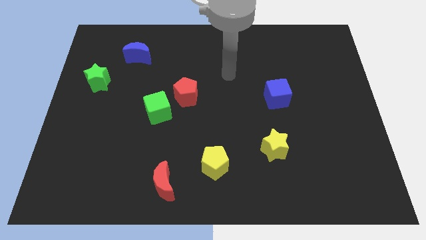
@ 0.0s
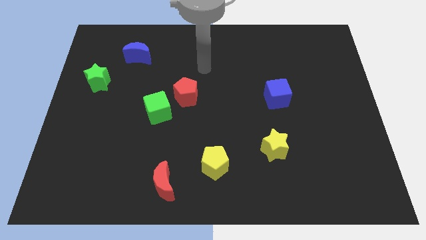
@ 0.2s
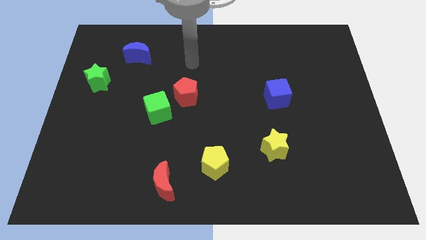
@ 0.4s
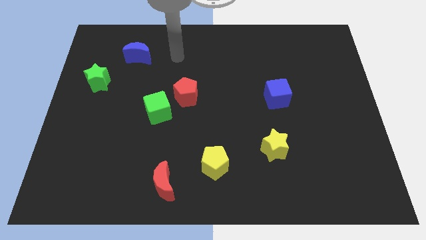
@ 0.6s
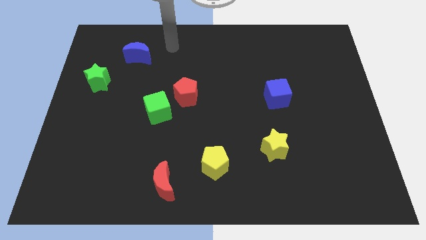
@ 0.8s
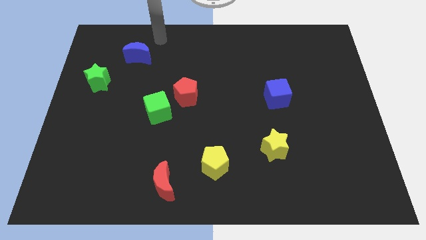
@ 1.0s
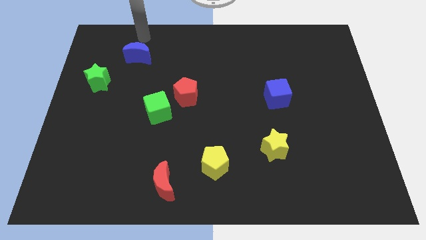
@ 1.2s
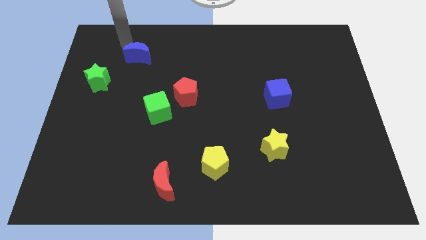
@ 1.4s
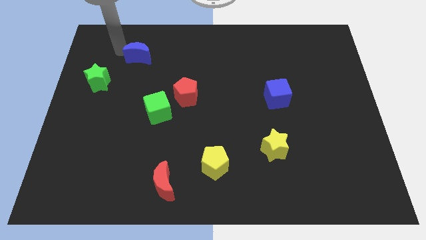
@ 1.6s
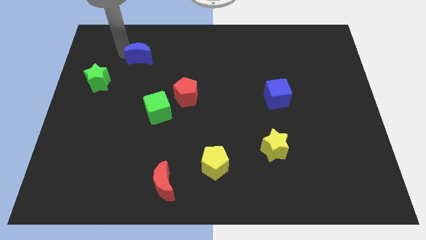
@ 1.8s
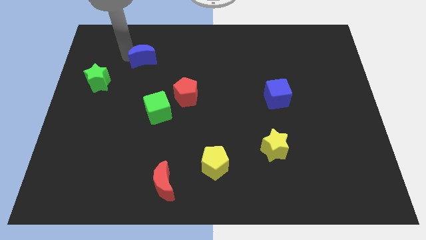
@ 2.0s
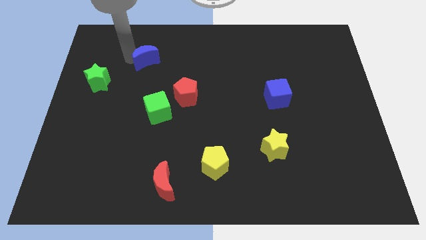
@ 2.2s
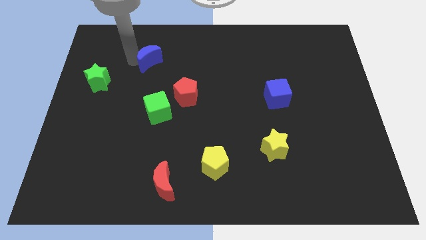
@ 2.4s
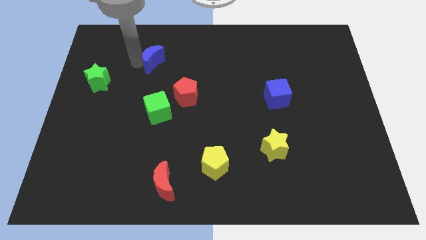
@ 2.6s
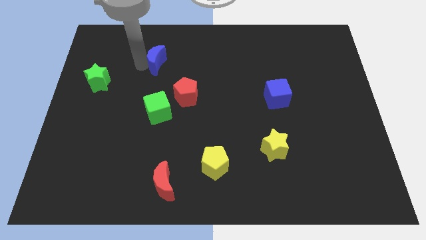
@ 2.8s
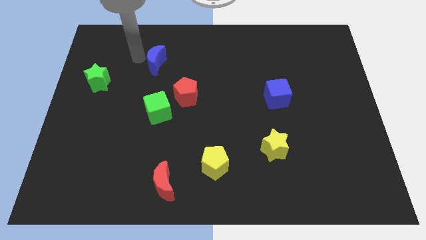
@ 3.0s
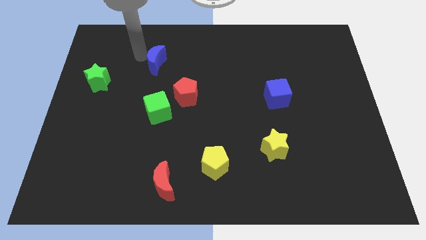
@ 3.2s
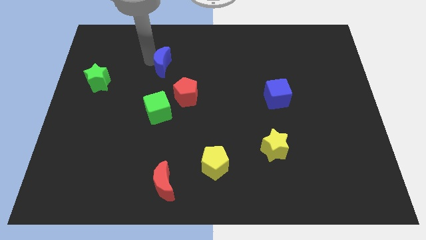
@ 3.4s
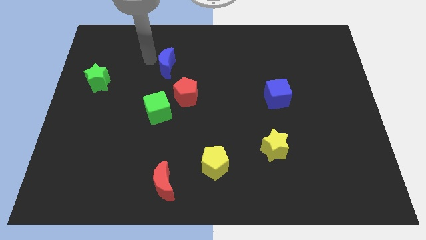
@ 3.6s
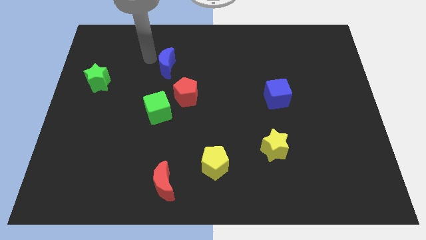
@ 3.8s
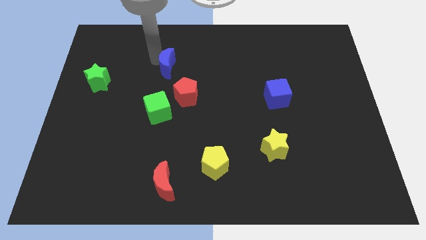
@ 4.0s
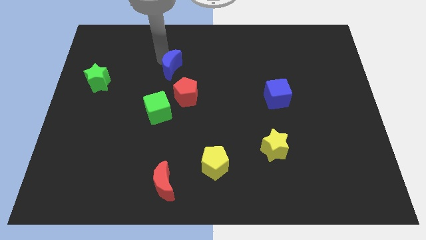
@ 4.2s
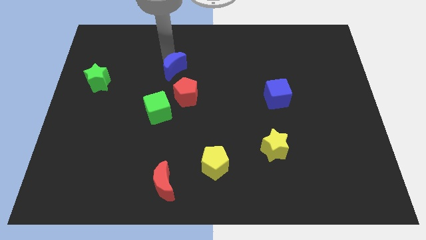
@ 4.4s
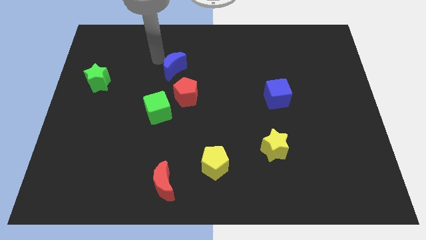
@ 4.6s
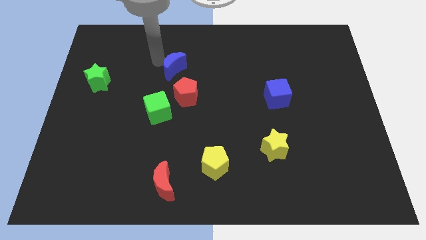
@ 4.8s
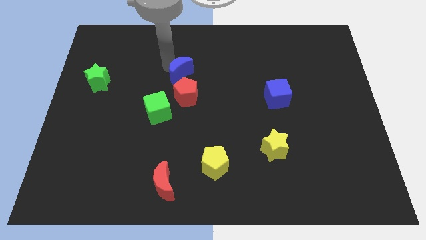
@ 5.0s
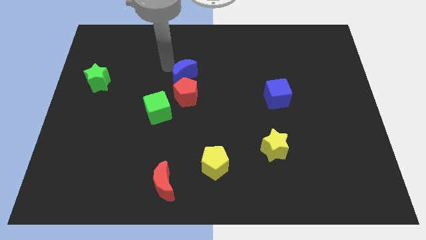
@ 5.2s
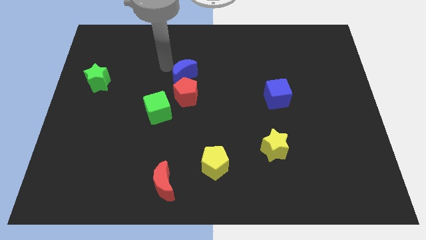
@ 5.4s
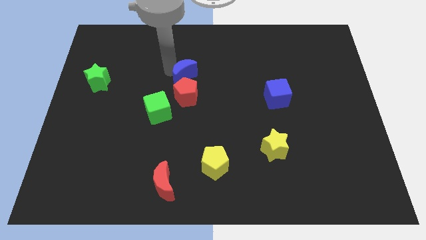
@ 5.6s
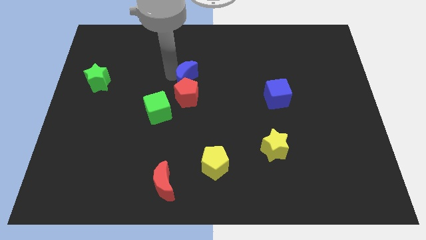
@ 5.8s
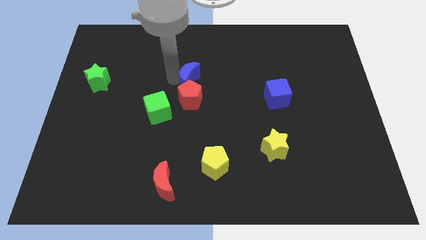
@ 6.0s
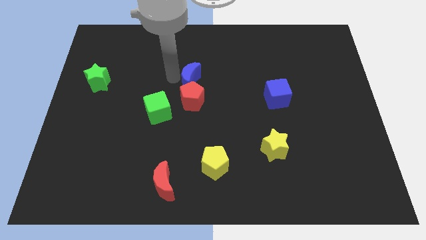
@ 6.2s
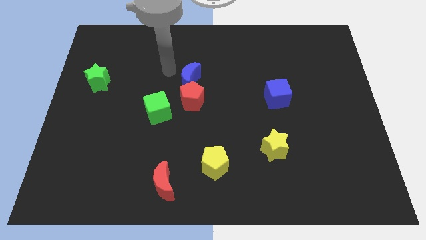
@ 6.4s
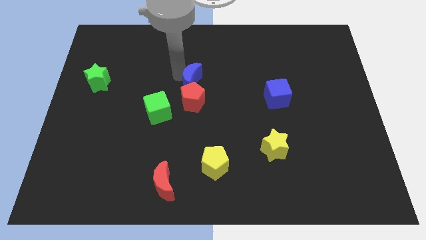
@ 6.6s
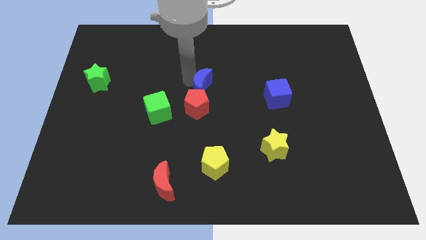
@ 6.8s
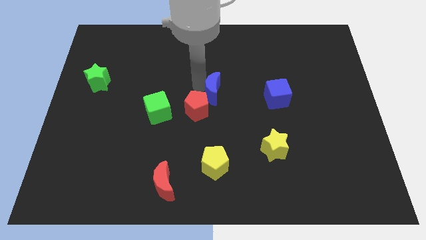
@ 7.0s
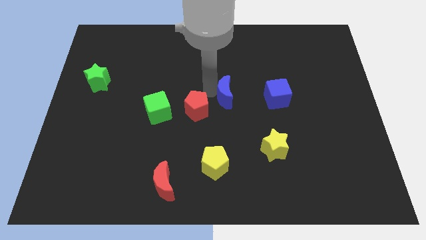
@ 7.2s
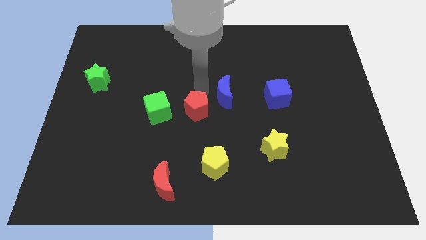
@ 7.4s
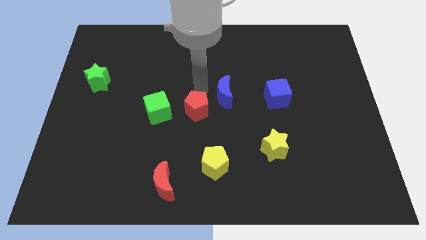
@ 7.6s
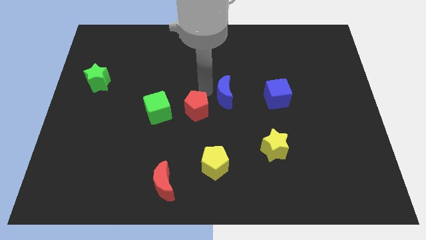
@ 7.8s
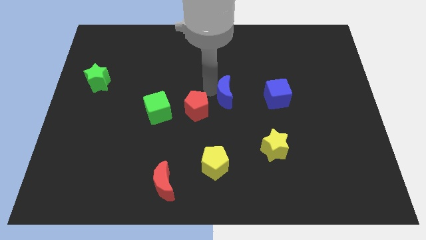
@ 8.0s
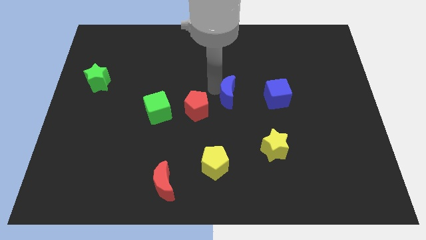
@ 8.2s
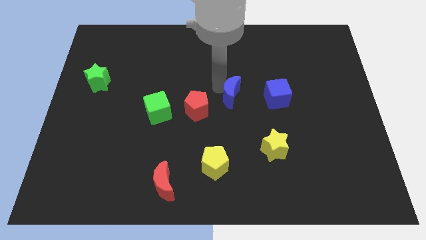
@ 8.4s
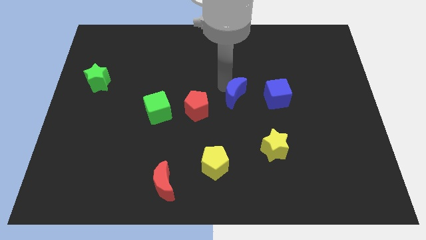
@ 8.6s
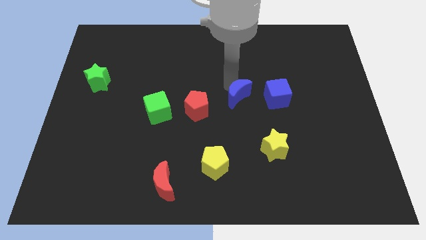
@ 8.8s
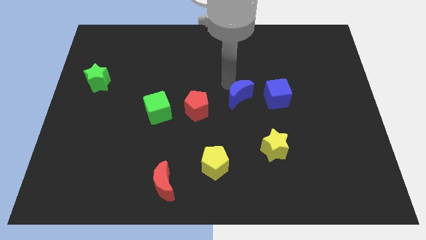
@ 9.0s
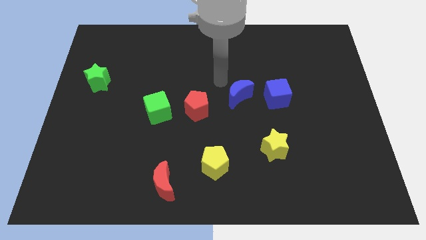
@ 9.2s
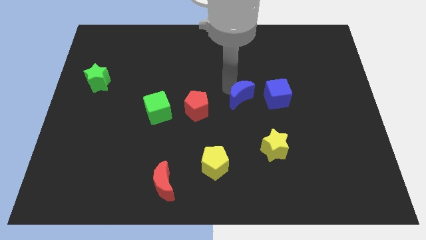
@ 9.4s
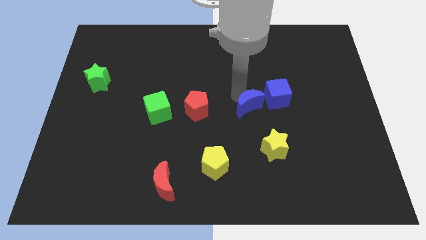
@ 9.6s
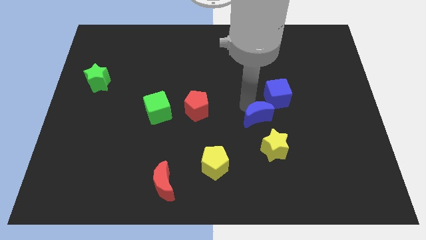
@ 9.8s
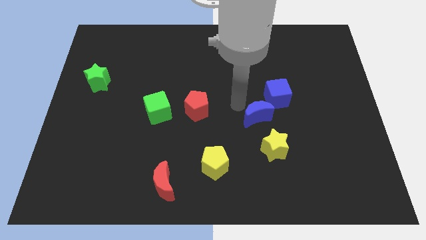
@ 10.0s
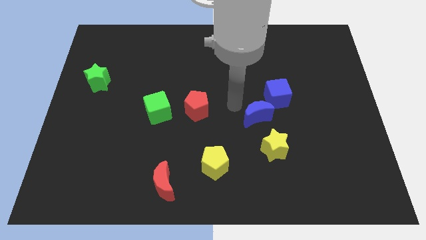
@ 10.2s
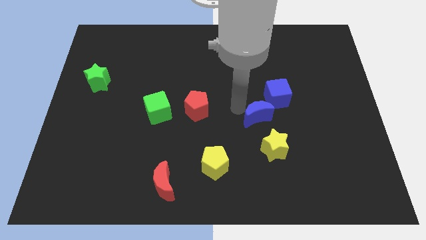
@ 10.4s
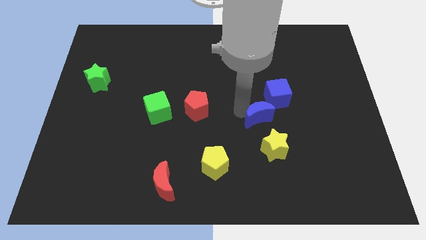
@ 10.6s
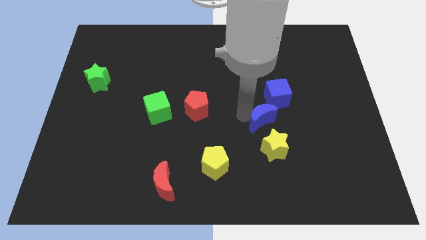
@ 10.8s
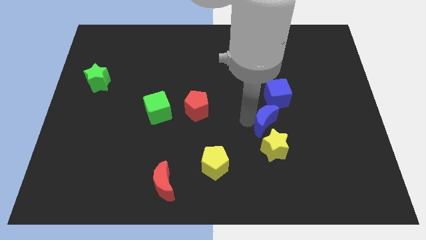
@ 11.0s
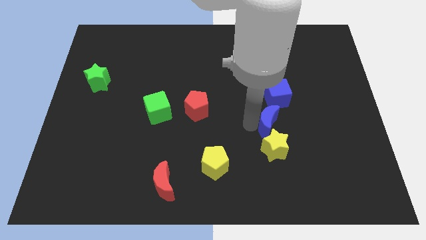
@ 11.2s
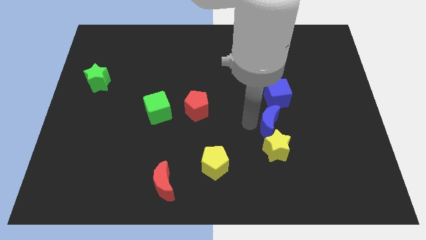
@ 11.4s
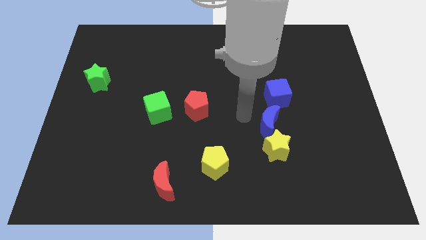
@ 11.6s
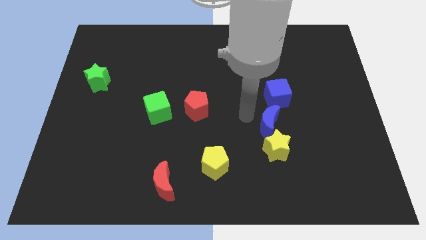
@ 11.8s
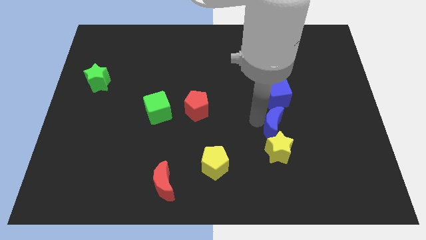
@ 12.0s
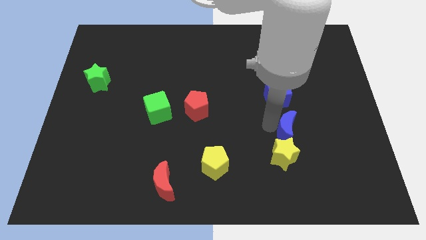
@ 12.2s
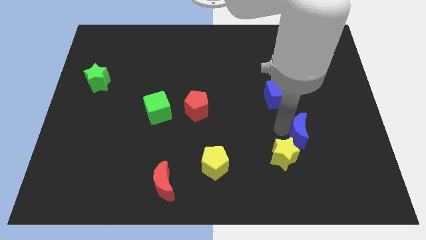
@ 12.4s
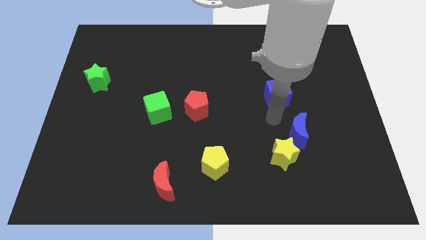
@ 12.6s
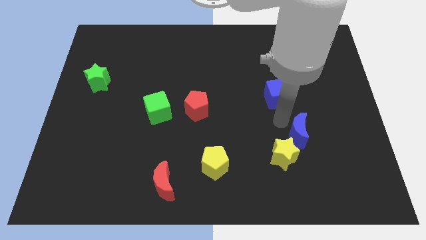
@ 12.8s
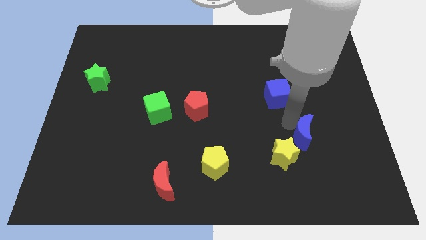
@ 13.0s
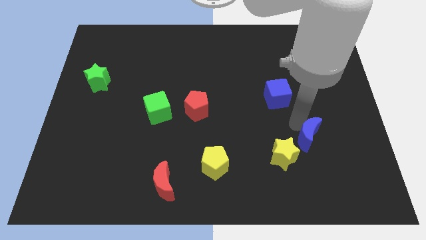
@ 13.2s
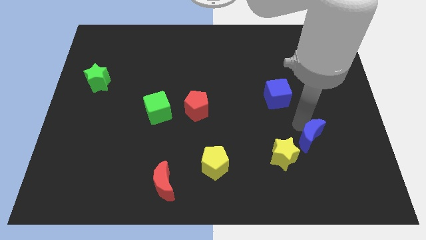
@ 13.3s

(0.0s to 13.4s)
push the blue moon to the right side of the yellow star

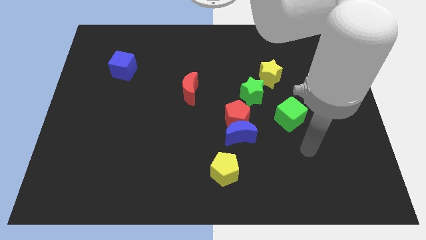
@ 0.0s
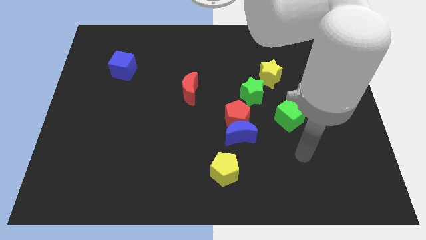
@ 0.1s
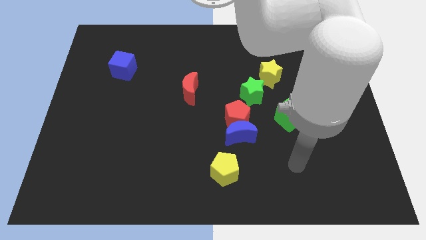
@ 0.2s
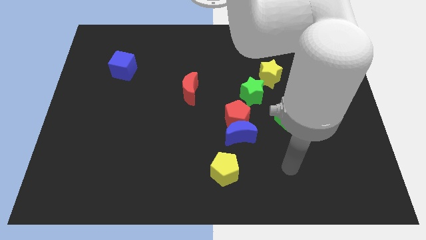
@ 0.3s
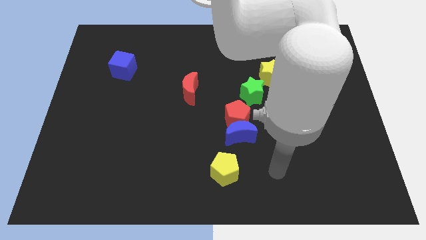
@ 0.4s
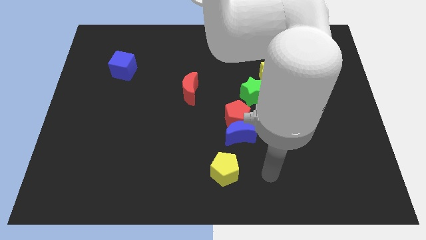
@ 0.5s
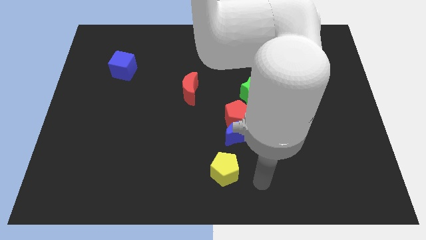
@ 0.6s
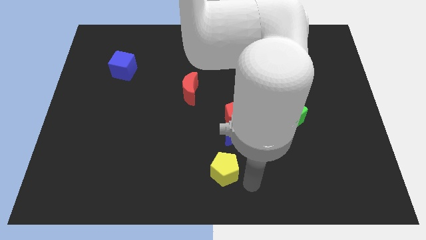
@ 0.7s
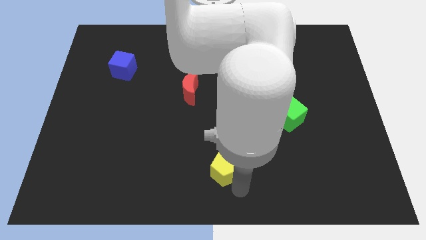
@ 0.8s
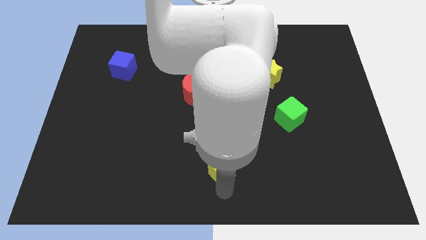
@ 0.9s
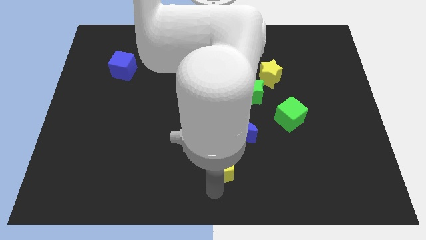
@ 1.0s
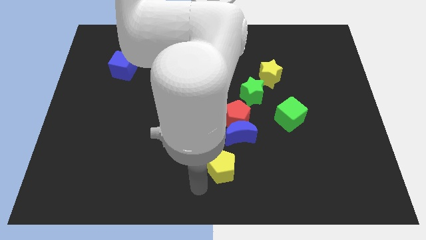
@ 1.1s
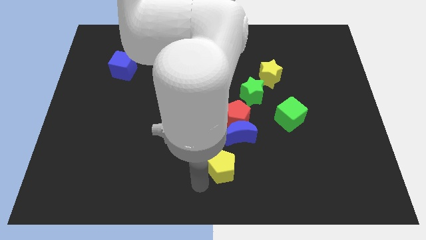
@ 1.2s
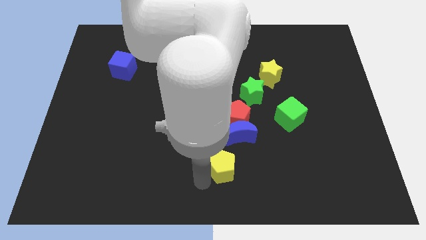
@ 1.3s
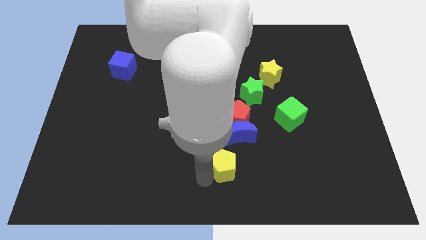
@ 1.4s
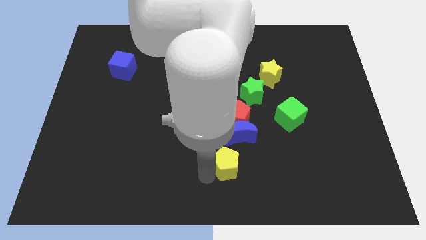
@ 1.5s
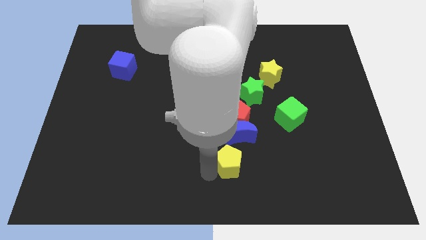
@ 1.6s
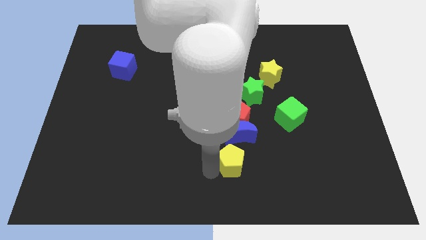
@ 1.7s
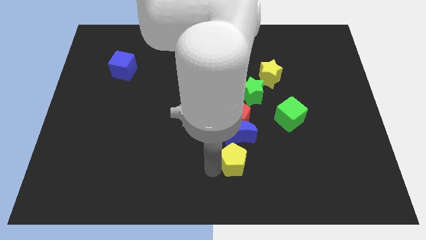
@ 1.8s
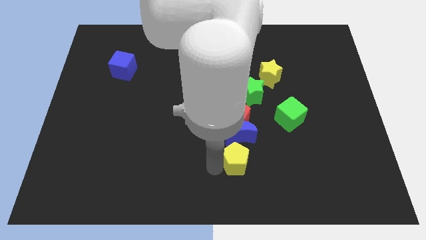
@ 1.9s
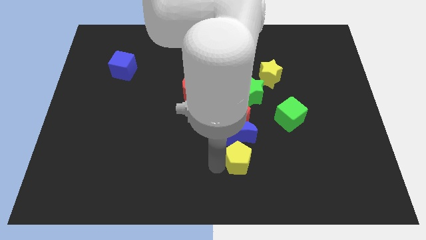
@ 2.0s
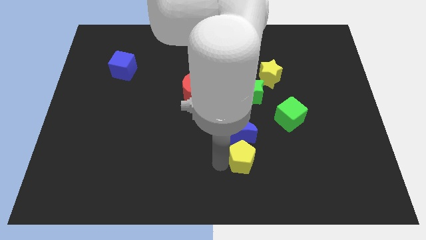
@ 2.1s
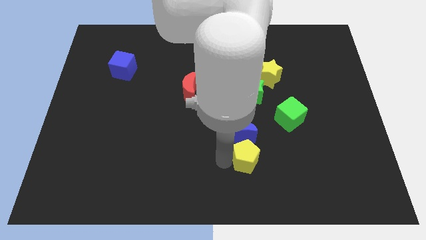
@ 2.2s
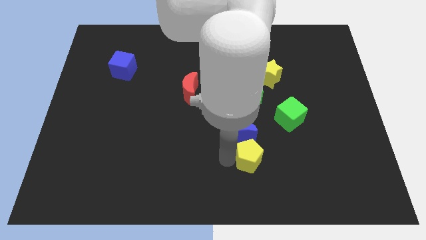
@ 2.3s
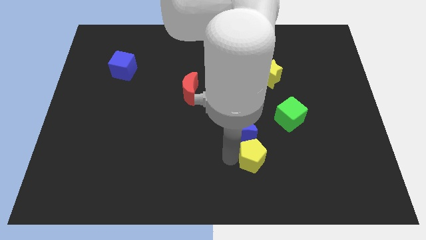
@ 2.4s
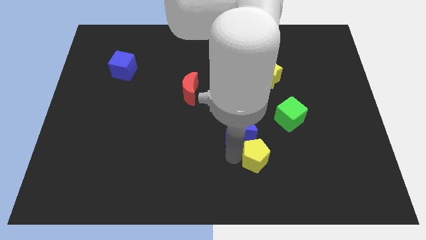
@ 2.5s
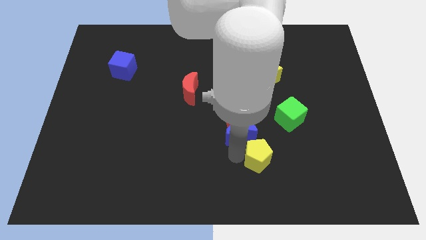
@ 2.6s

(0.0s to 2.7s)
put the yellow pentagon to the bottom right side of the red pentagon
